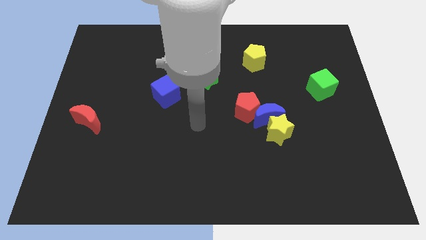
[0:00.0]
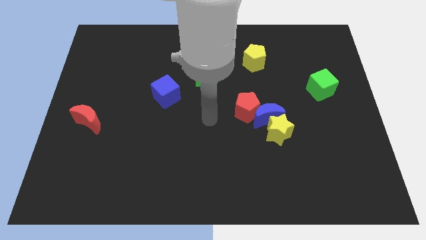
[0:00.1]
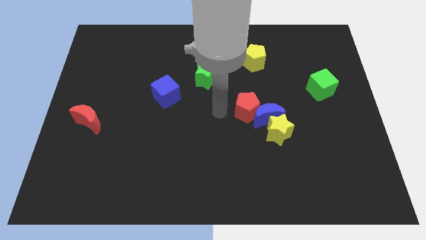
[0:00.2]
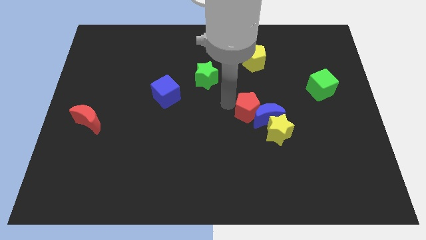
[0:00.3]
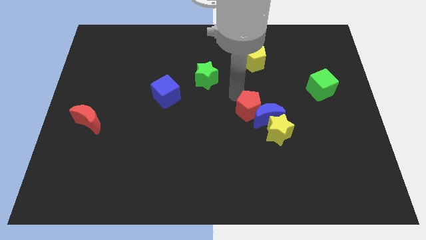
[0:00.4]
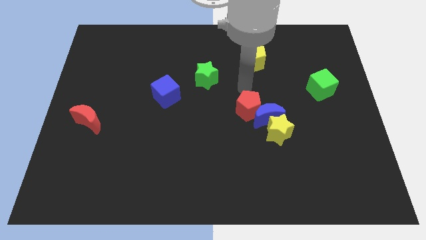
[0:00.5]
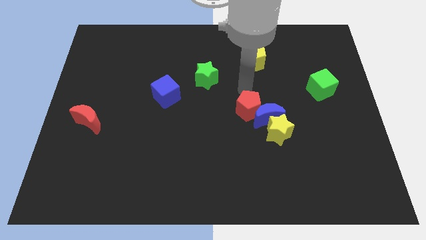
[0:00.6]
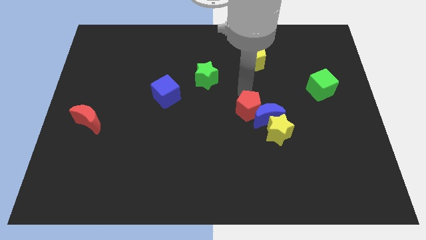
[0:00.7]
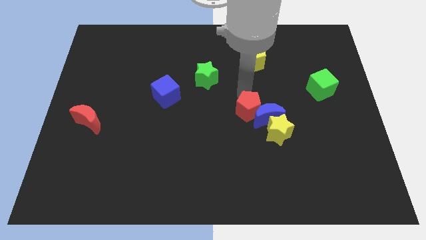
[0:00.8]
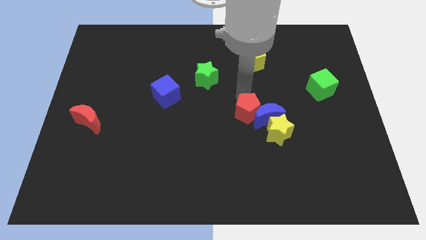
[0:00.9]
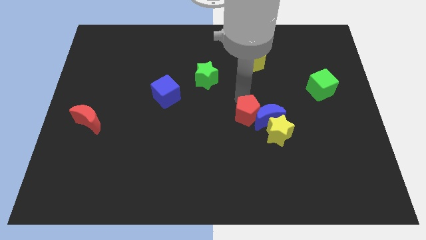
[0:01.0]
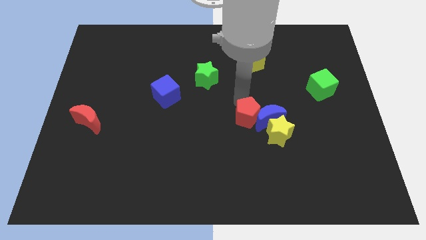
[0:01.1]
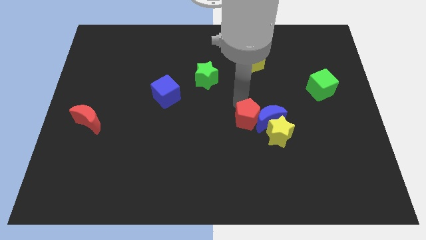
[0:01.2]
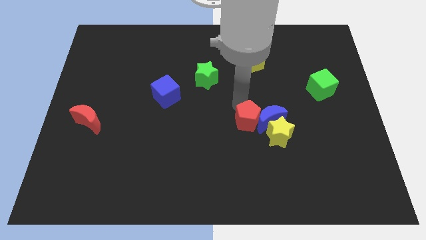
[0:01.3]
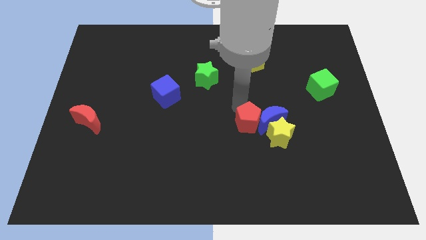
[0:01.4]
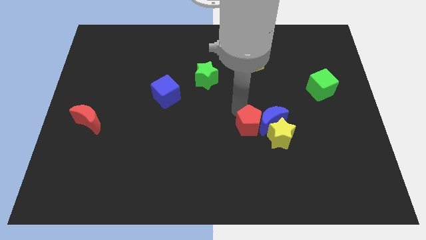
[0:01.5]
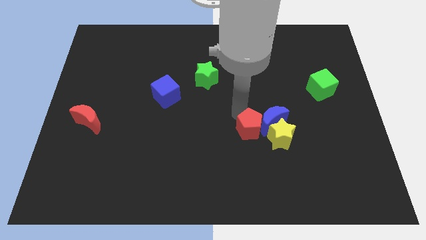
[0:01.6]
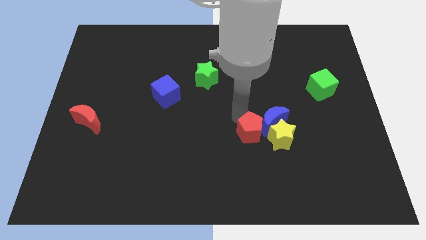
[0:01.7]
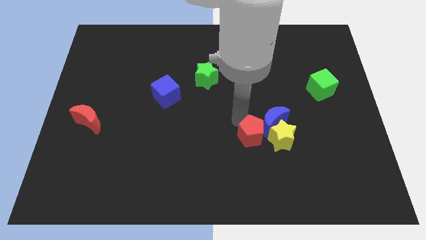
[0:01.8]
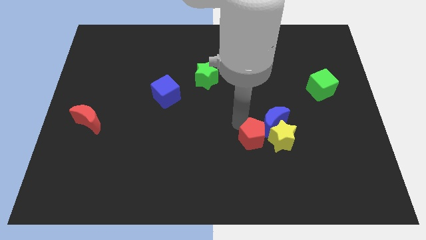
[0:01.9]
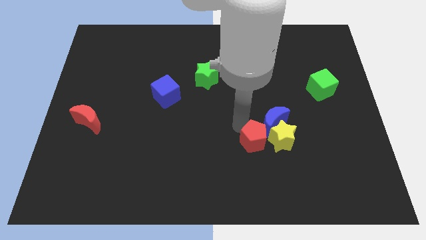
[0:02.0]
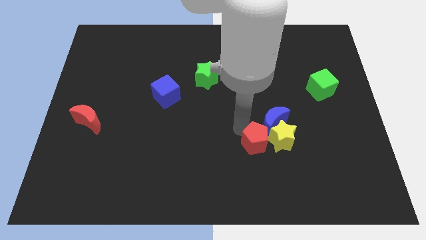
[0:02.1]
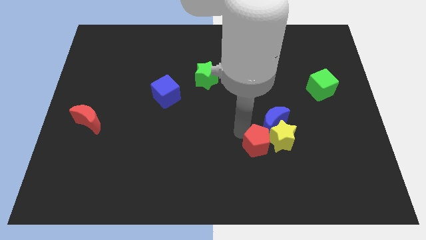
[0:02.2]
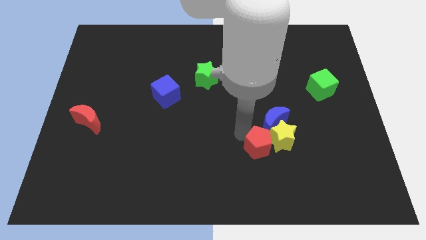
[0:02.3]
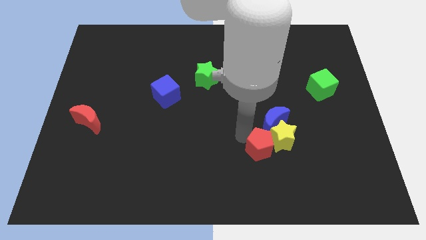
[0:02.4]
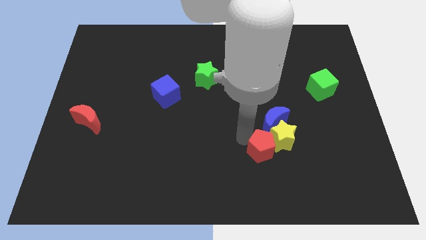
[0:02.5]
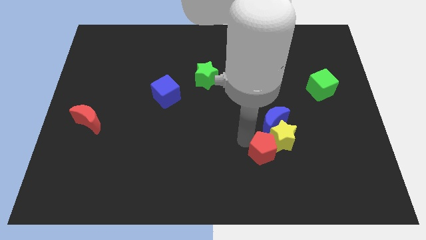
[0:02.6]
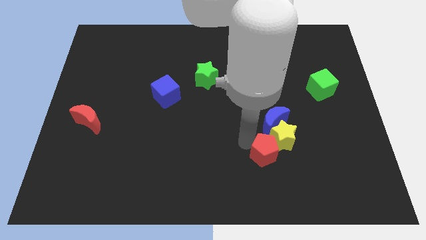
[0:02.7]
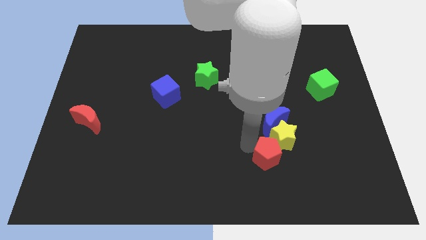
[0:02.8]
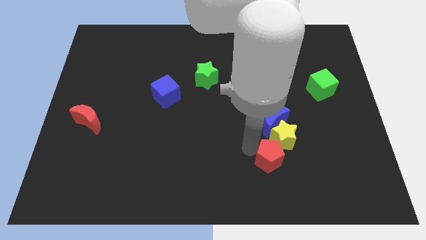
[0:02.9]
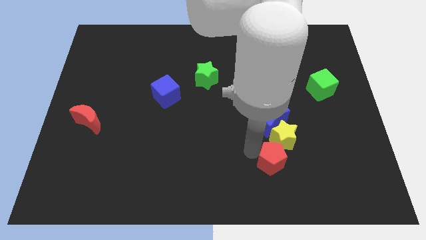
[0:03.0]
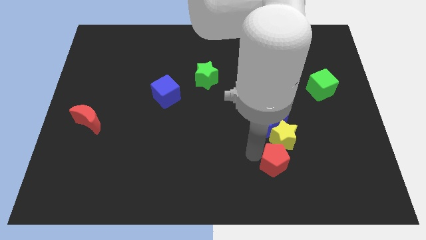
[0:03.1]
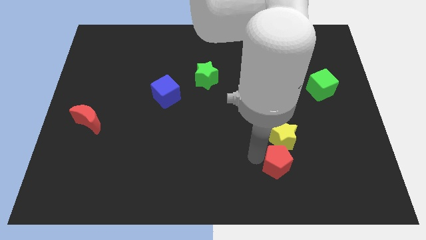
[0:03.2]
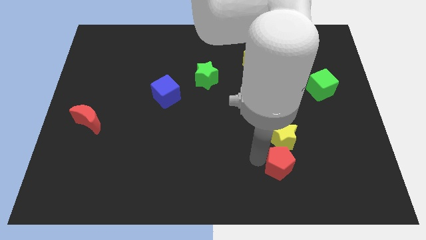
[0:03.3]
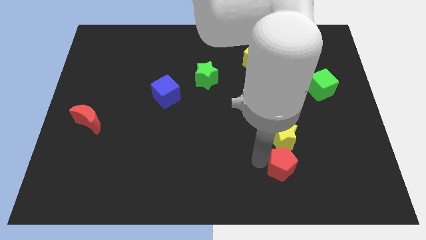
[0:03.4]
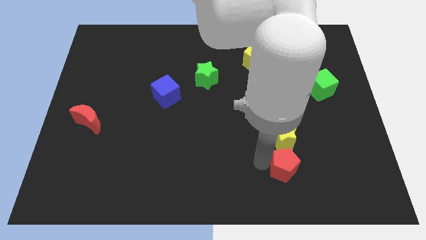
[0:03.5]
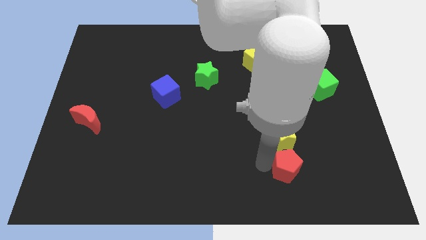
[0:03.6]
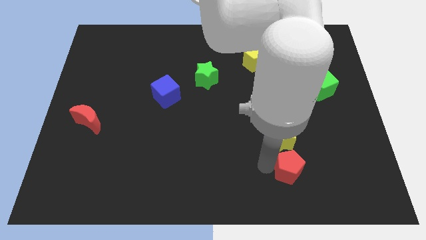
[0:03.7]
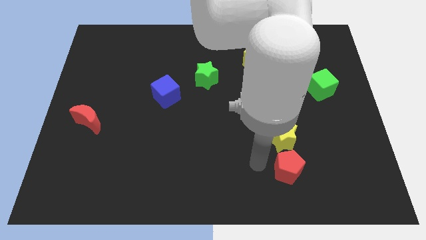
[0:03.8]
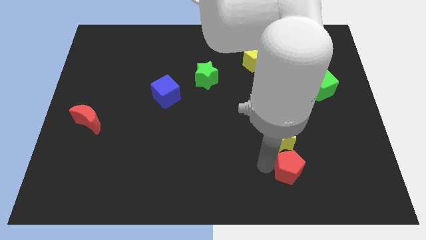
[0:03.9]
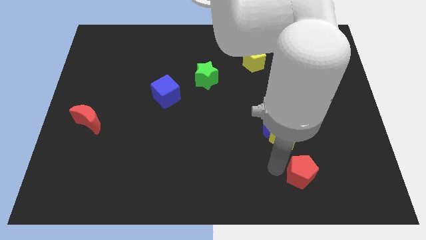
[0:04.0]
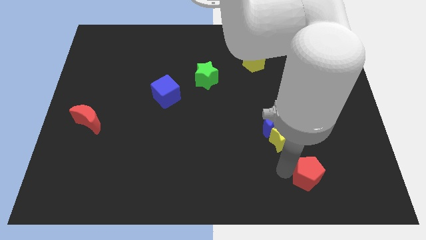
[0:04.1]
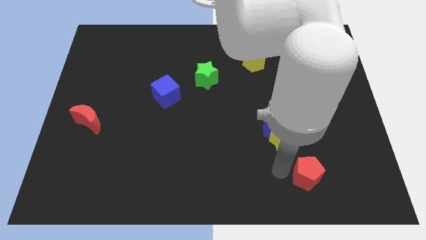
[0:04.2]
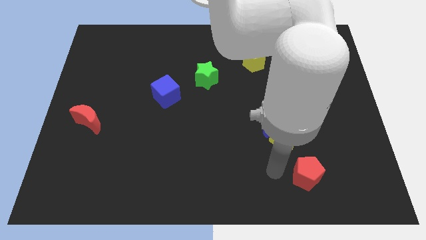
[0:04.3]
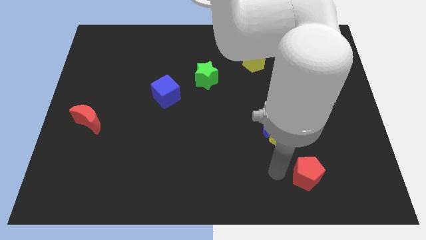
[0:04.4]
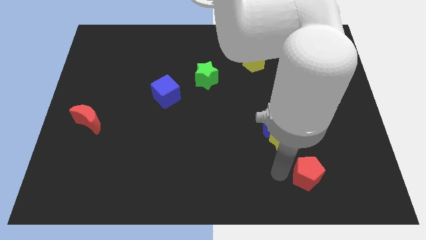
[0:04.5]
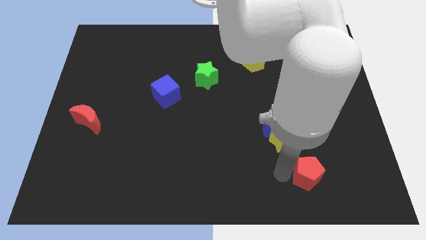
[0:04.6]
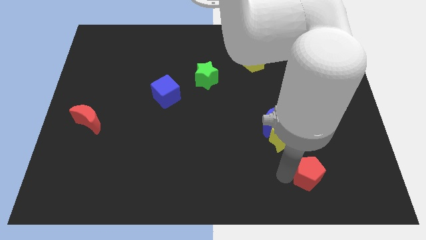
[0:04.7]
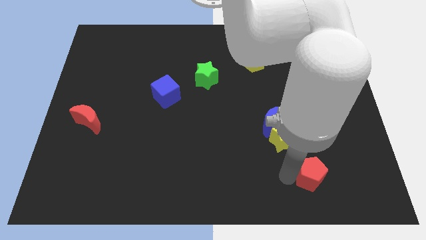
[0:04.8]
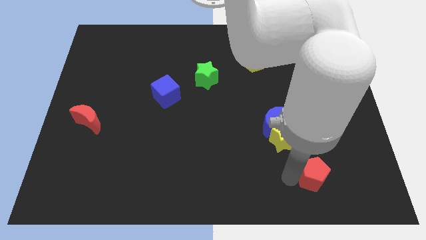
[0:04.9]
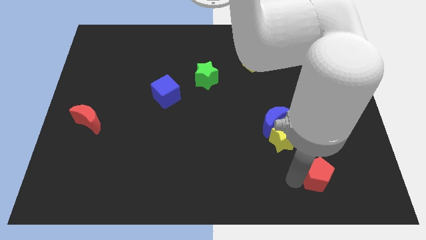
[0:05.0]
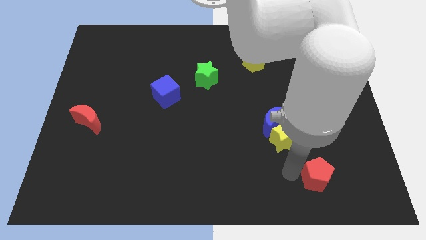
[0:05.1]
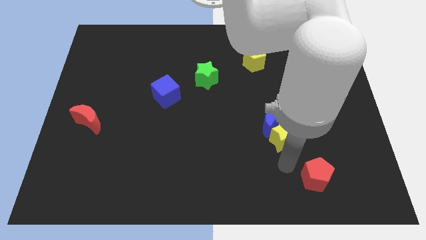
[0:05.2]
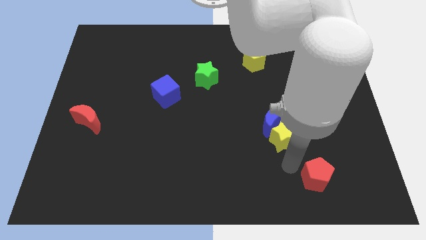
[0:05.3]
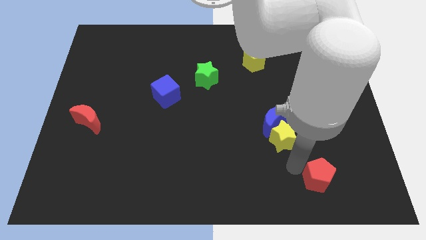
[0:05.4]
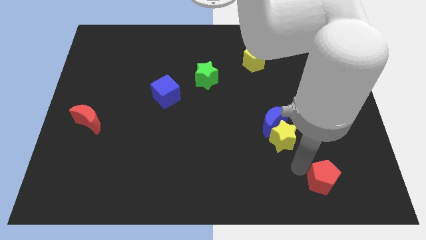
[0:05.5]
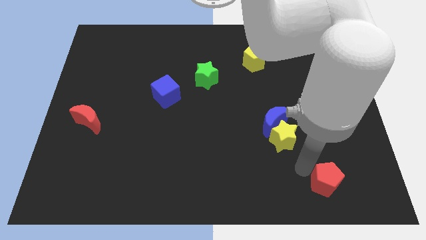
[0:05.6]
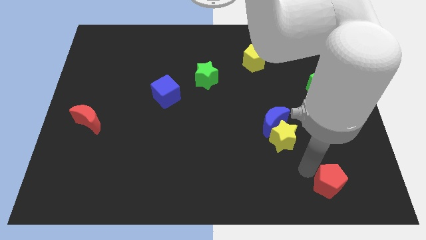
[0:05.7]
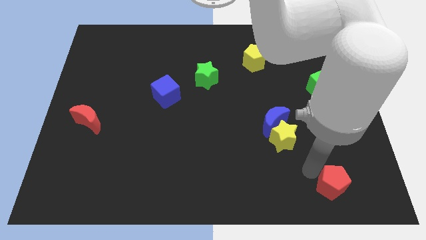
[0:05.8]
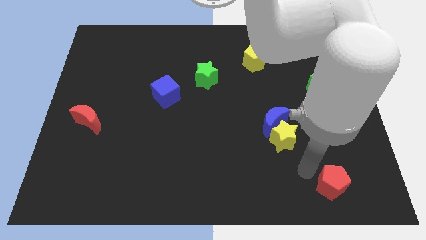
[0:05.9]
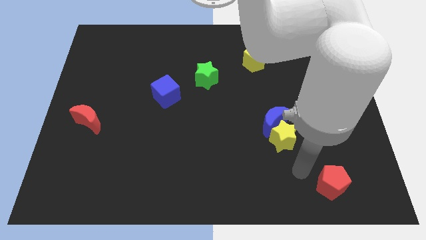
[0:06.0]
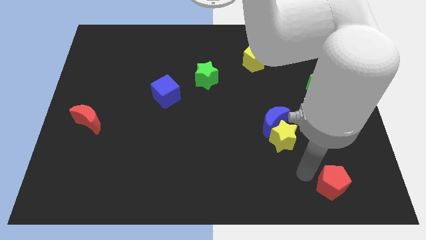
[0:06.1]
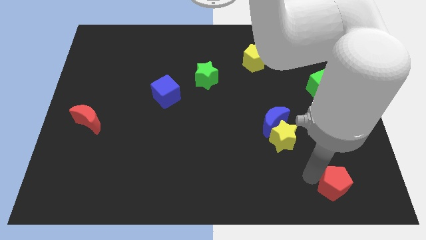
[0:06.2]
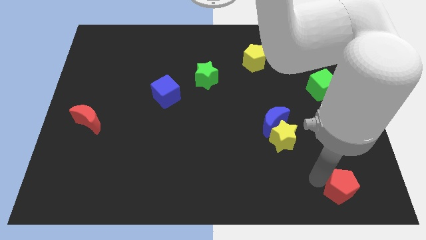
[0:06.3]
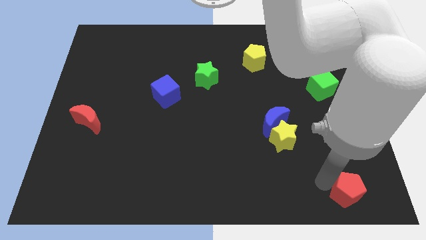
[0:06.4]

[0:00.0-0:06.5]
put the red pentagon to the bottom right of the board
